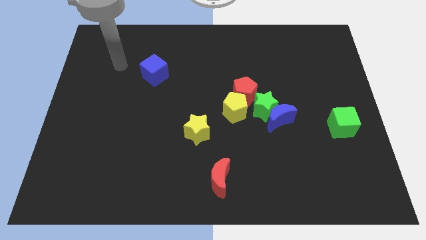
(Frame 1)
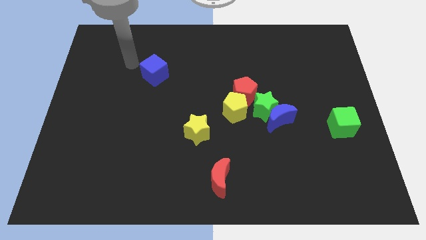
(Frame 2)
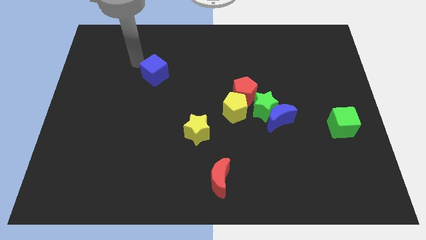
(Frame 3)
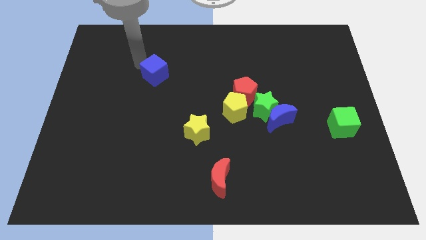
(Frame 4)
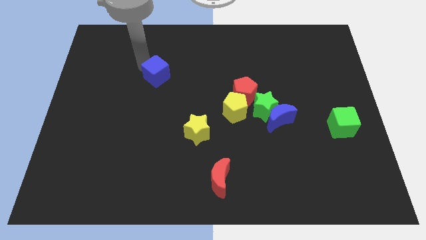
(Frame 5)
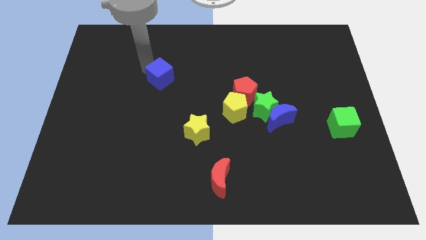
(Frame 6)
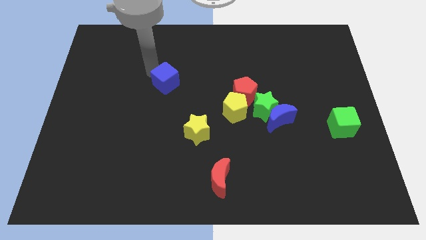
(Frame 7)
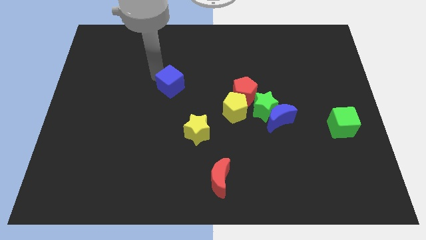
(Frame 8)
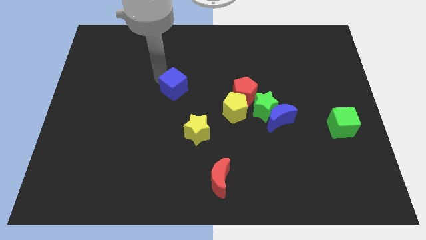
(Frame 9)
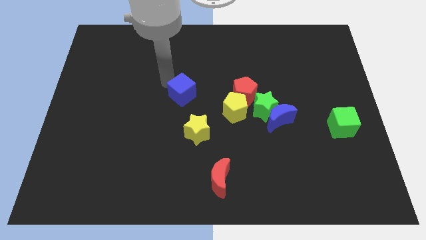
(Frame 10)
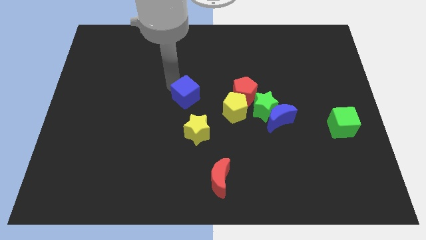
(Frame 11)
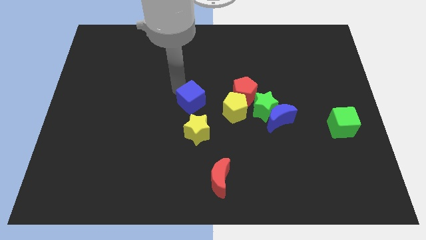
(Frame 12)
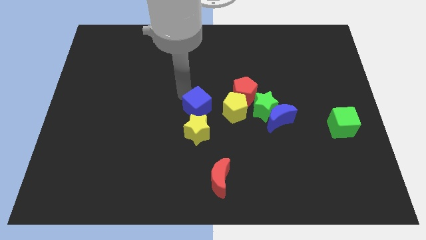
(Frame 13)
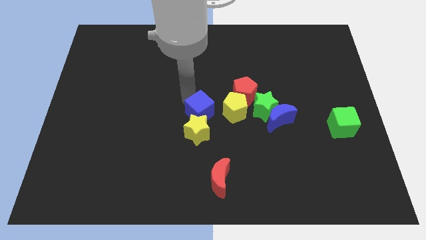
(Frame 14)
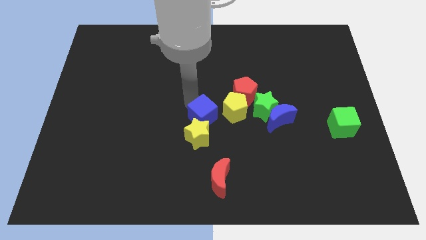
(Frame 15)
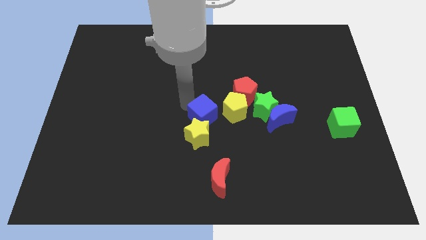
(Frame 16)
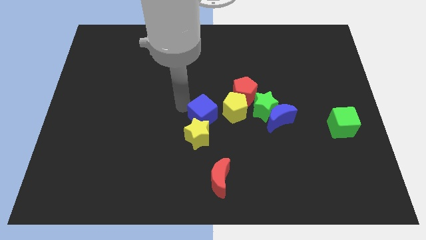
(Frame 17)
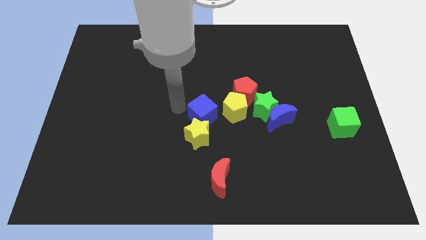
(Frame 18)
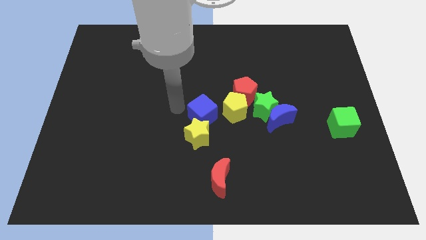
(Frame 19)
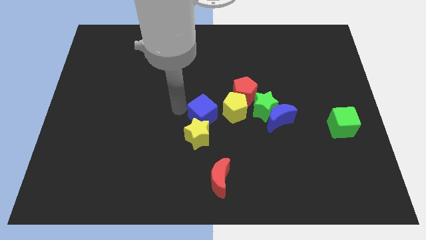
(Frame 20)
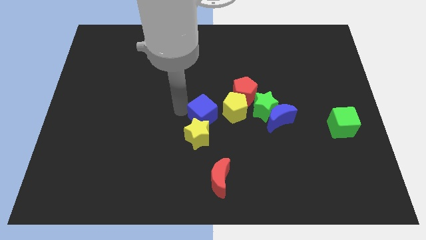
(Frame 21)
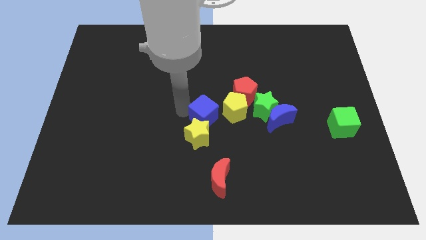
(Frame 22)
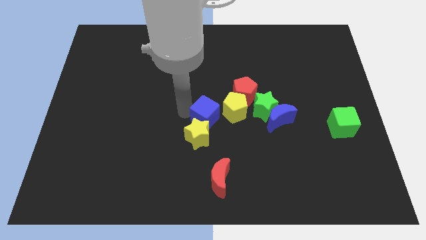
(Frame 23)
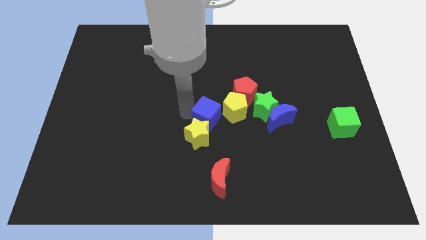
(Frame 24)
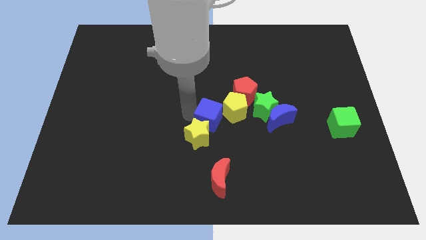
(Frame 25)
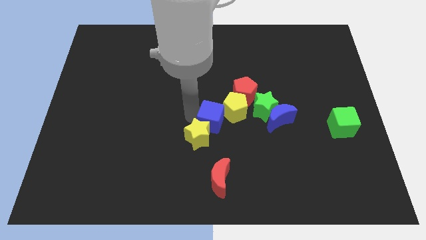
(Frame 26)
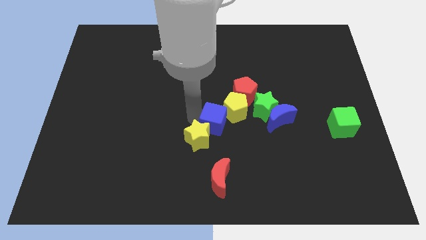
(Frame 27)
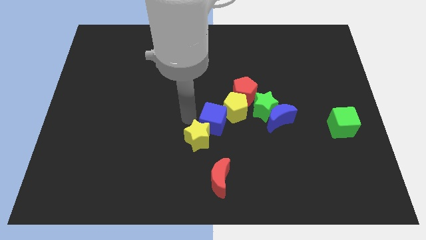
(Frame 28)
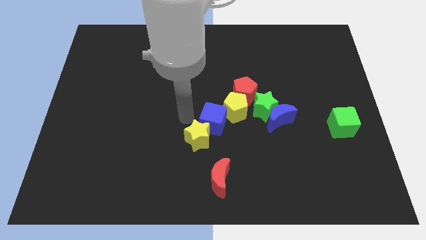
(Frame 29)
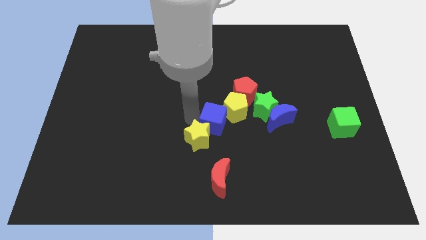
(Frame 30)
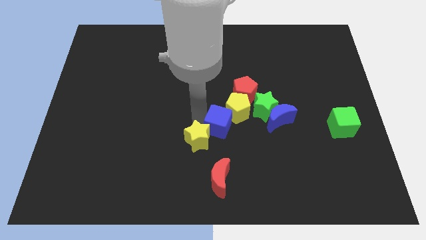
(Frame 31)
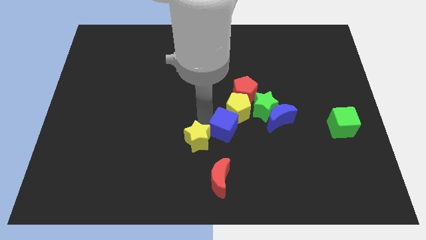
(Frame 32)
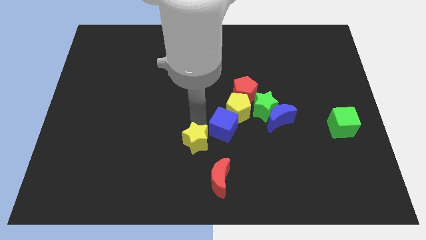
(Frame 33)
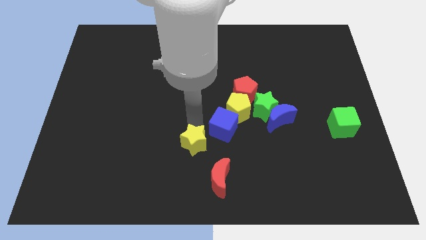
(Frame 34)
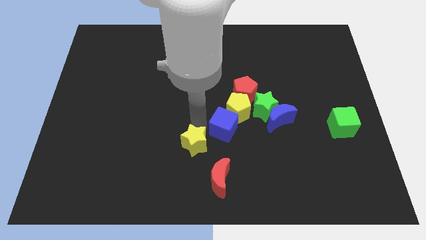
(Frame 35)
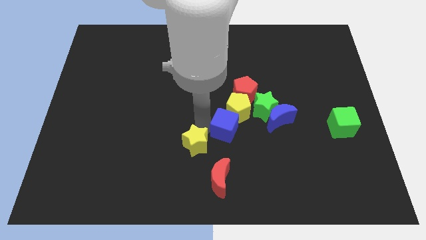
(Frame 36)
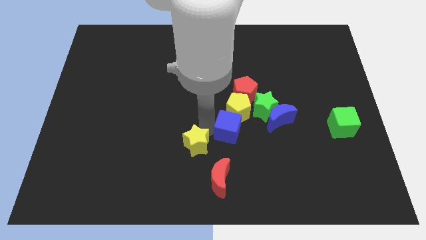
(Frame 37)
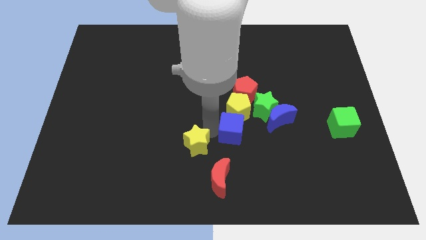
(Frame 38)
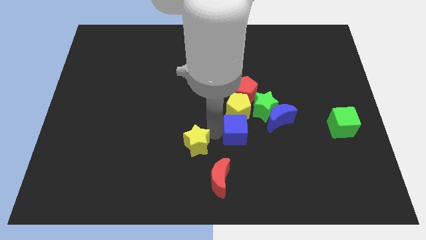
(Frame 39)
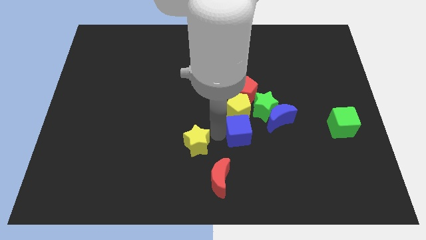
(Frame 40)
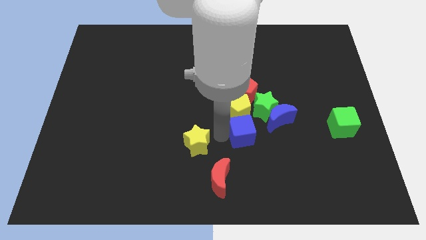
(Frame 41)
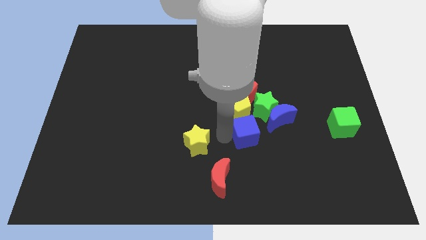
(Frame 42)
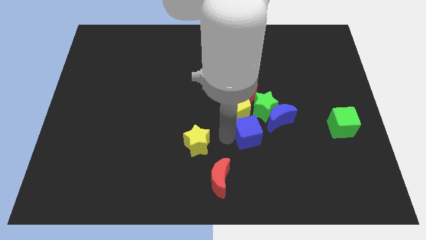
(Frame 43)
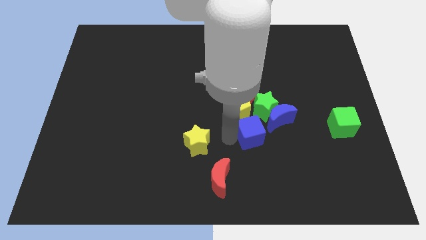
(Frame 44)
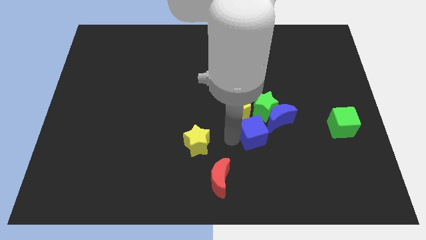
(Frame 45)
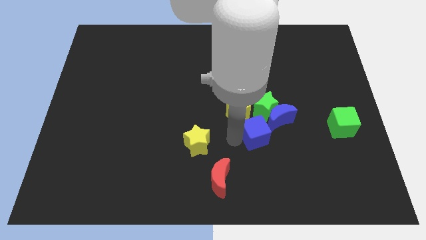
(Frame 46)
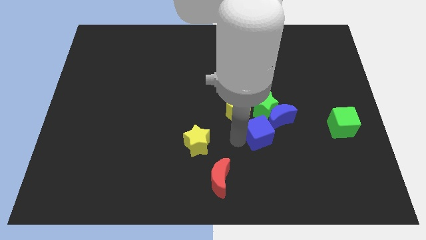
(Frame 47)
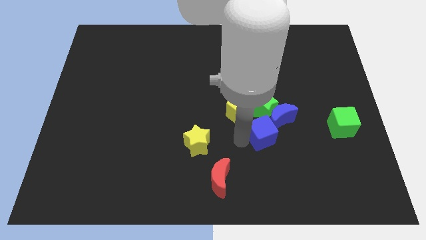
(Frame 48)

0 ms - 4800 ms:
move the blue cube close to the blue moon

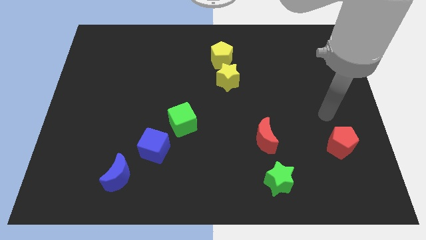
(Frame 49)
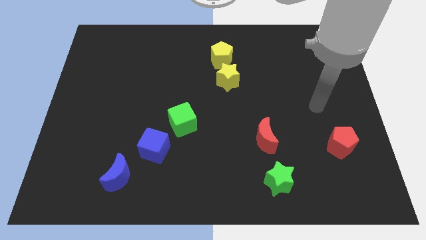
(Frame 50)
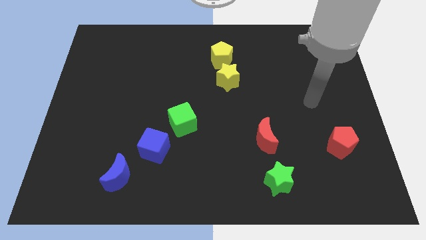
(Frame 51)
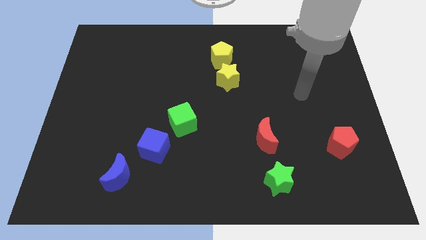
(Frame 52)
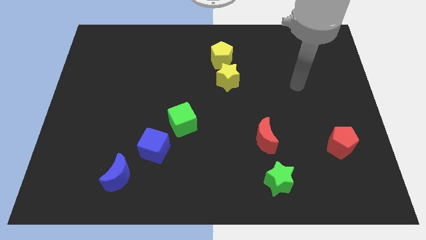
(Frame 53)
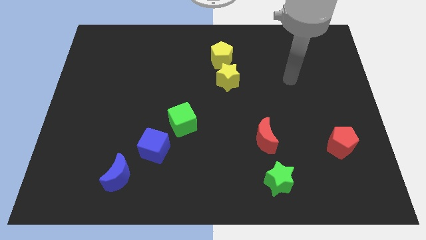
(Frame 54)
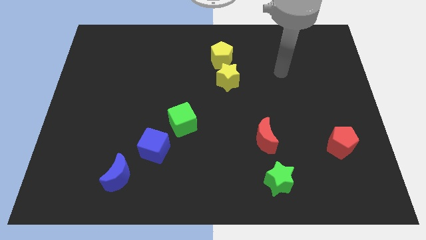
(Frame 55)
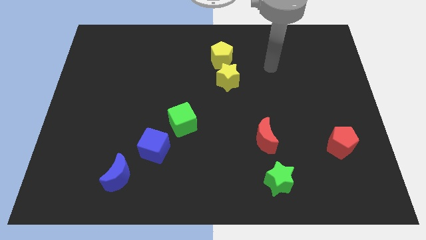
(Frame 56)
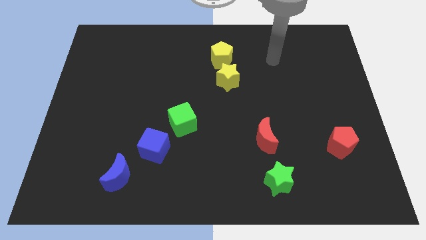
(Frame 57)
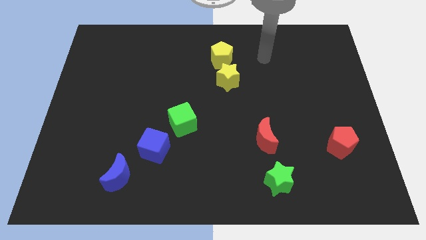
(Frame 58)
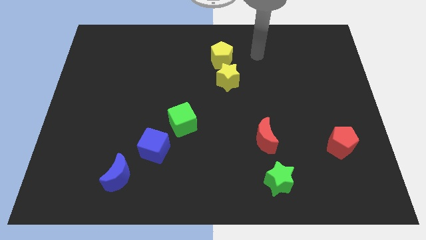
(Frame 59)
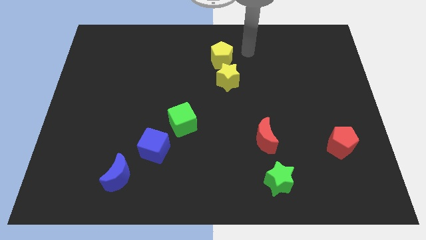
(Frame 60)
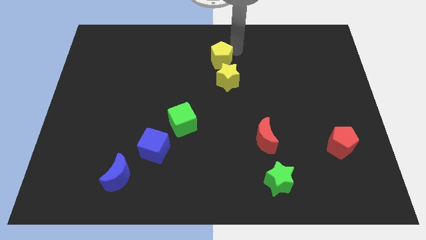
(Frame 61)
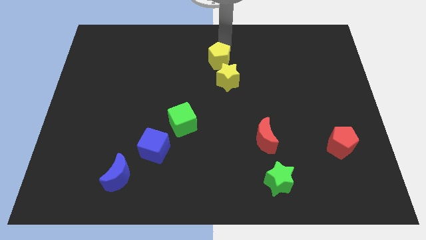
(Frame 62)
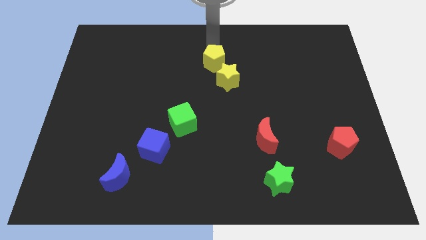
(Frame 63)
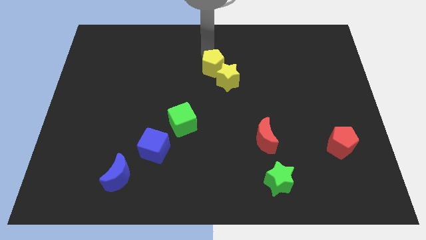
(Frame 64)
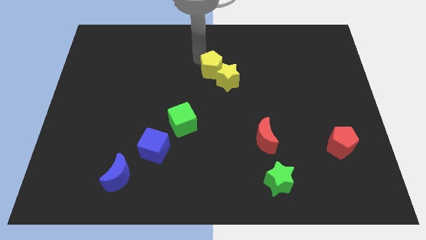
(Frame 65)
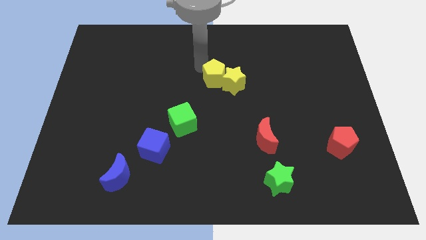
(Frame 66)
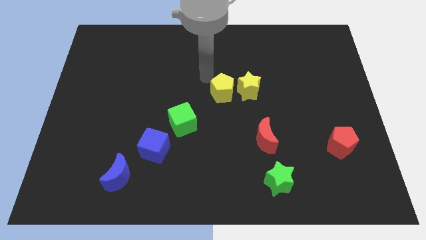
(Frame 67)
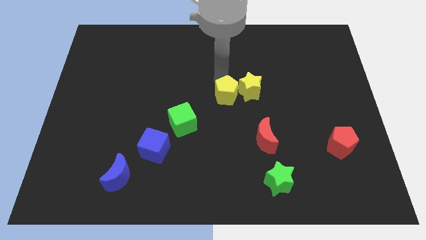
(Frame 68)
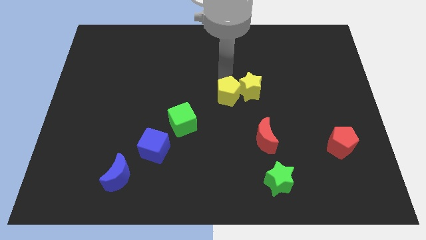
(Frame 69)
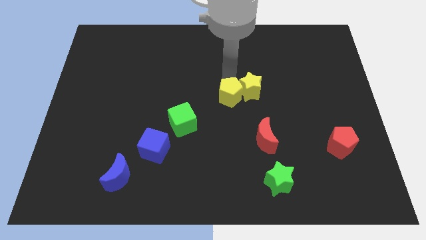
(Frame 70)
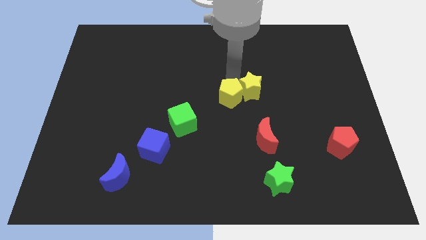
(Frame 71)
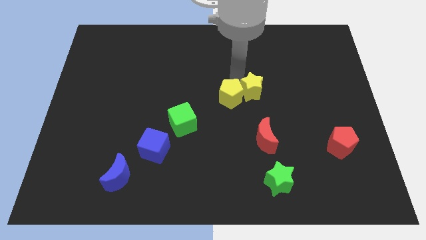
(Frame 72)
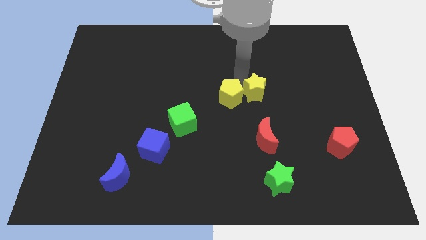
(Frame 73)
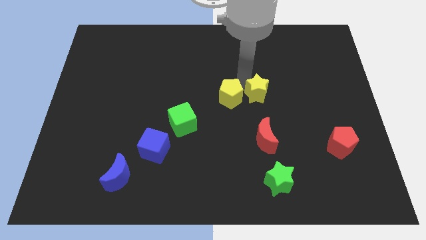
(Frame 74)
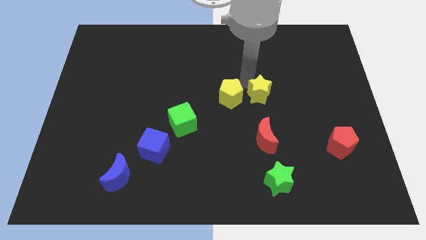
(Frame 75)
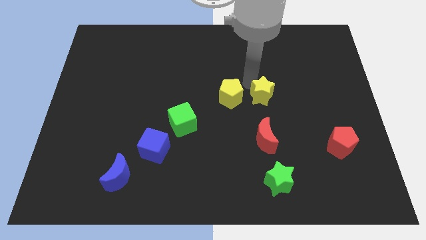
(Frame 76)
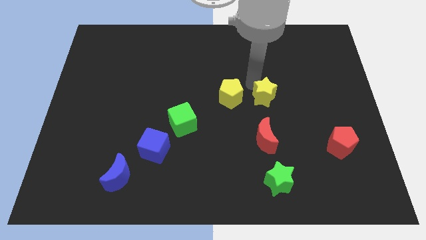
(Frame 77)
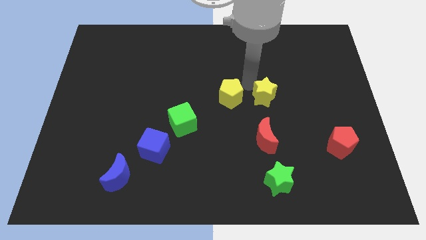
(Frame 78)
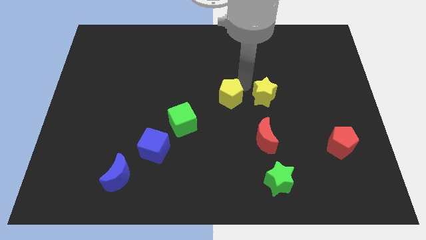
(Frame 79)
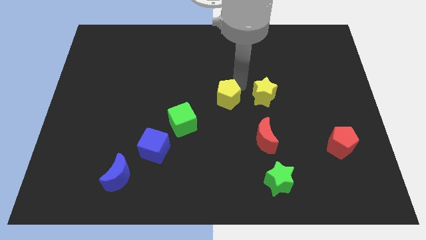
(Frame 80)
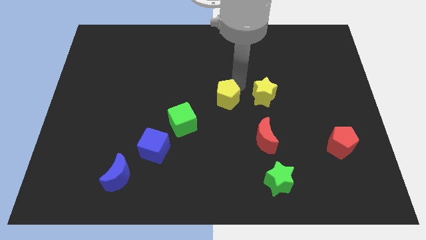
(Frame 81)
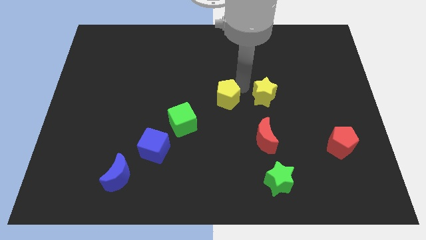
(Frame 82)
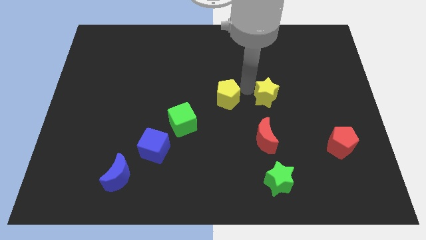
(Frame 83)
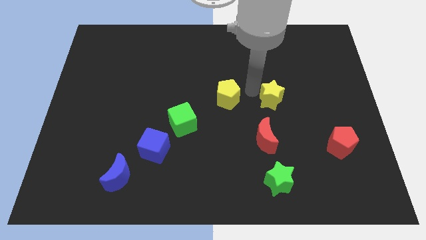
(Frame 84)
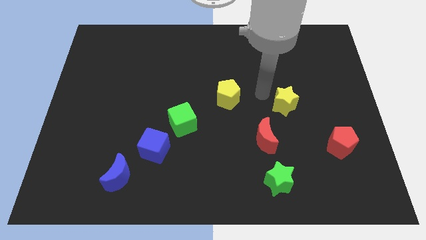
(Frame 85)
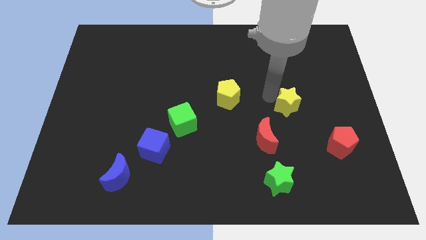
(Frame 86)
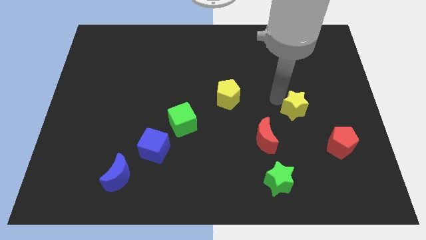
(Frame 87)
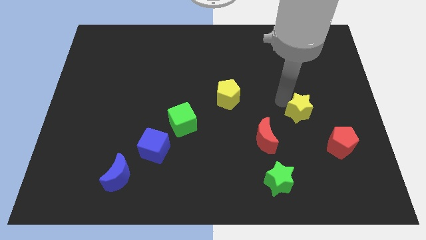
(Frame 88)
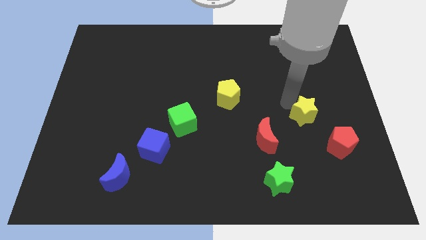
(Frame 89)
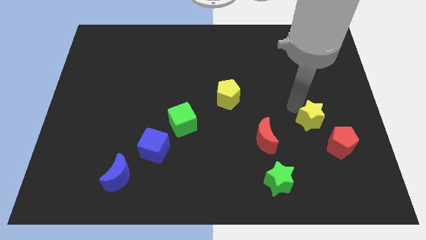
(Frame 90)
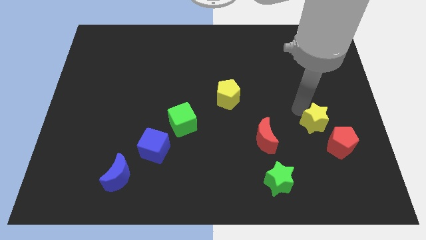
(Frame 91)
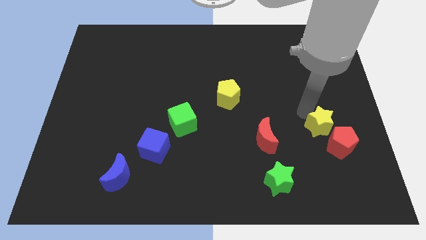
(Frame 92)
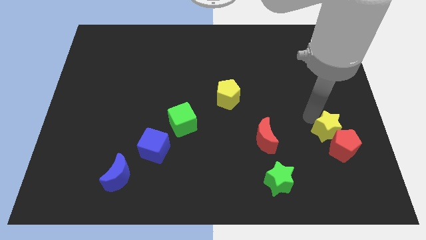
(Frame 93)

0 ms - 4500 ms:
put the yellow star towards the red pentagon
